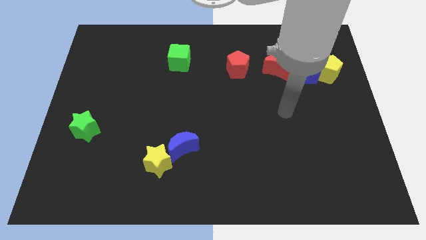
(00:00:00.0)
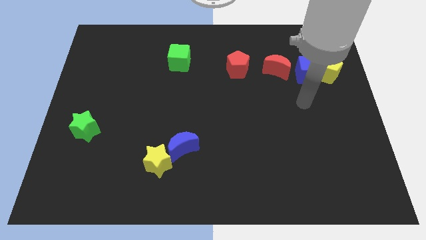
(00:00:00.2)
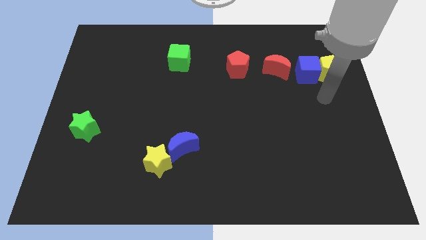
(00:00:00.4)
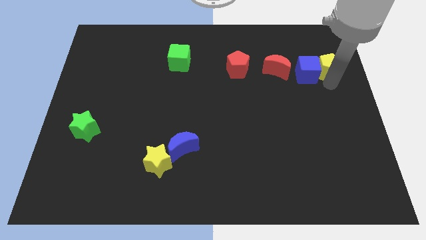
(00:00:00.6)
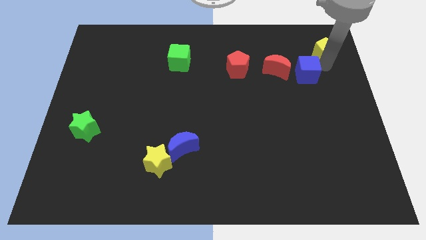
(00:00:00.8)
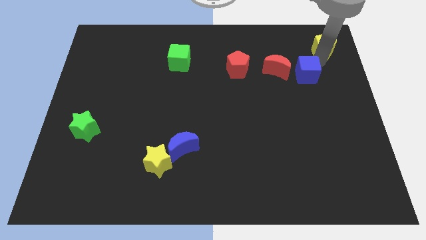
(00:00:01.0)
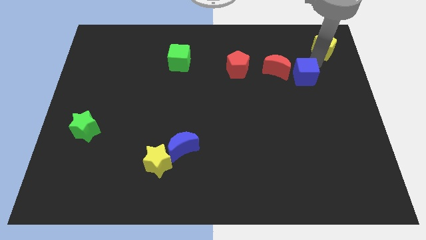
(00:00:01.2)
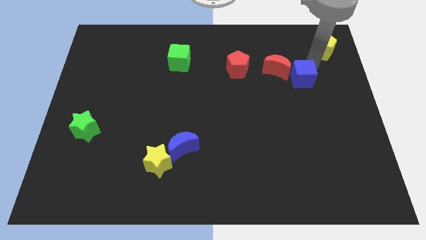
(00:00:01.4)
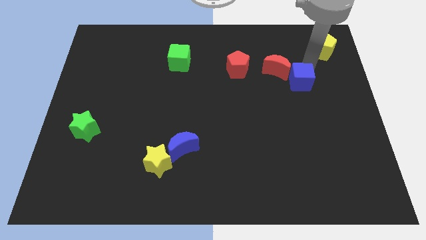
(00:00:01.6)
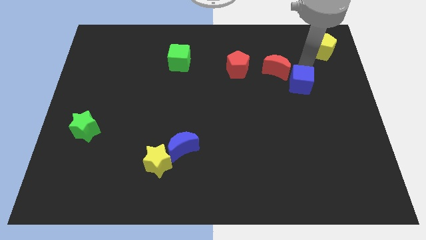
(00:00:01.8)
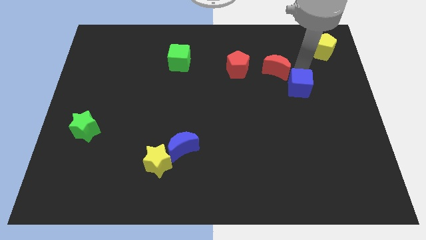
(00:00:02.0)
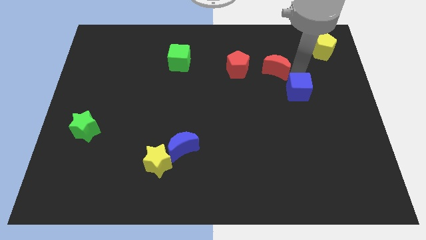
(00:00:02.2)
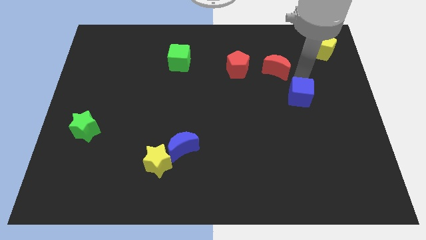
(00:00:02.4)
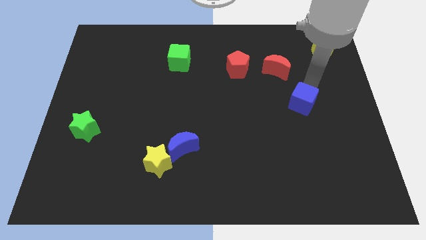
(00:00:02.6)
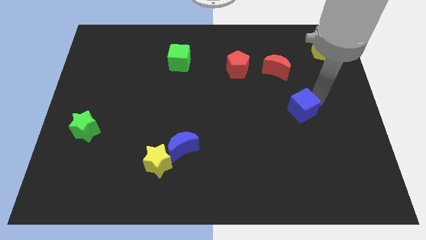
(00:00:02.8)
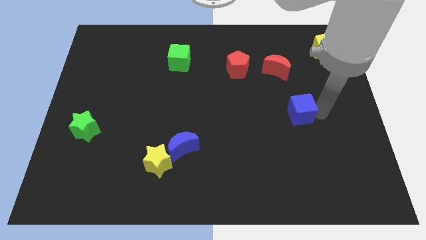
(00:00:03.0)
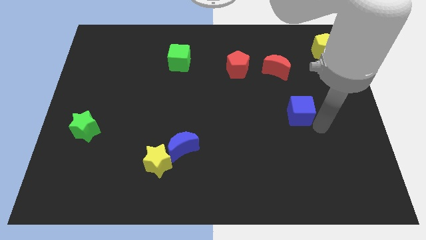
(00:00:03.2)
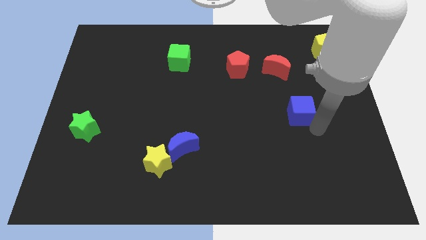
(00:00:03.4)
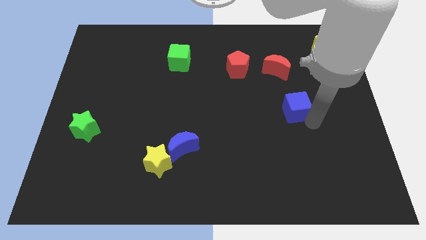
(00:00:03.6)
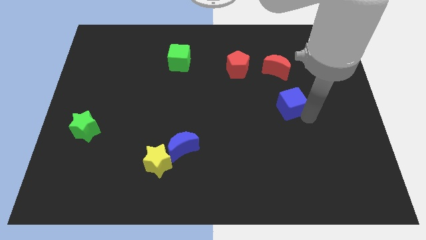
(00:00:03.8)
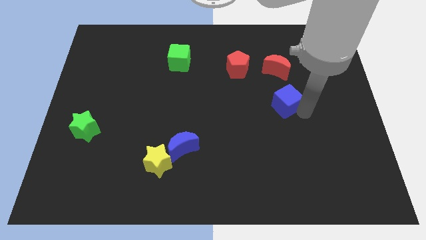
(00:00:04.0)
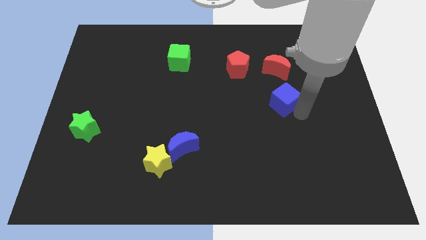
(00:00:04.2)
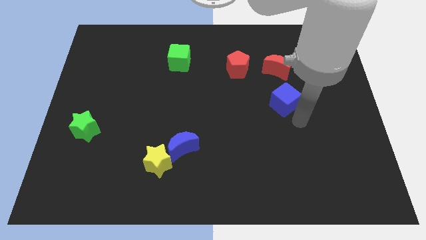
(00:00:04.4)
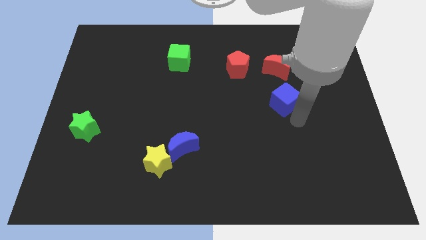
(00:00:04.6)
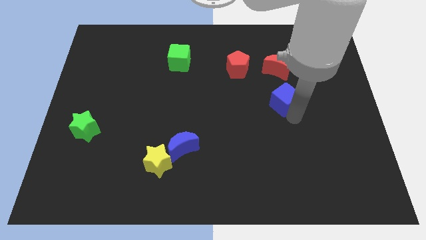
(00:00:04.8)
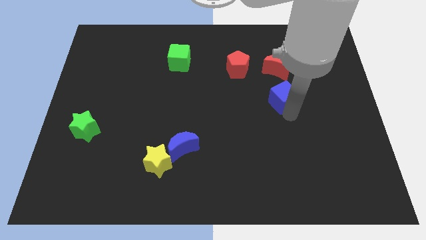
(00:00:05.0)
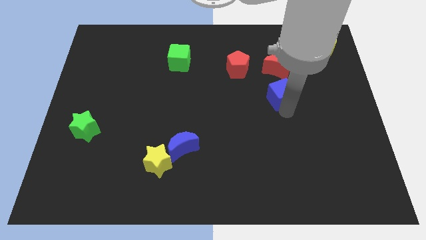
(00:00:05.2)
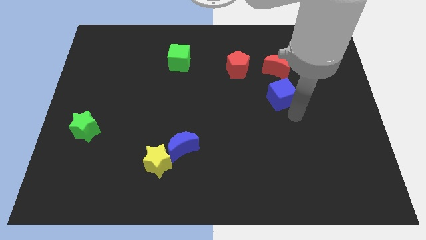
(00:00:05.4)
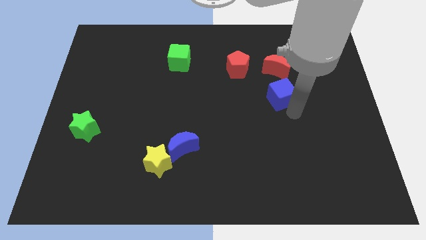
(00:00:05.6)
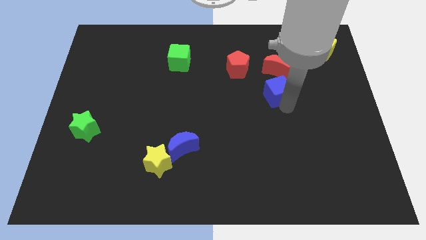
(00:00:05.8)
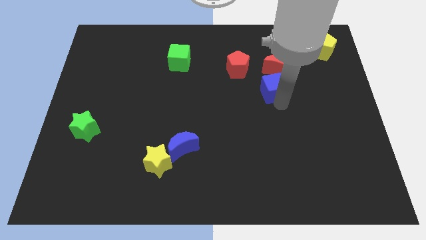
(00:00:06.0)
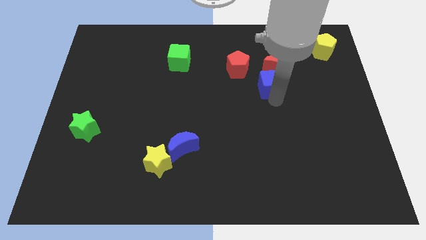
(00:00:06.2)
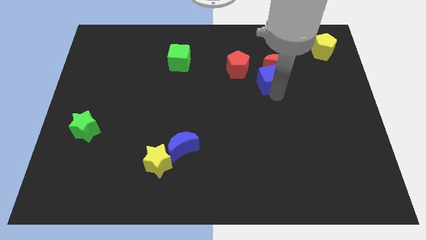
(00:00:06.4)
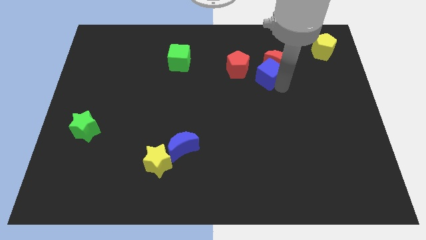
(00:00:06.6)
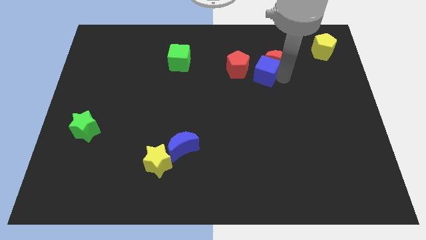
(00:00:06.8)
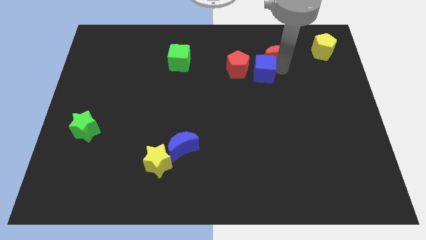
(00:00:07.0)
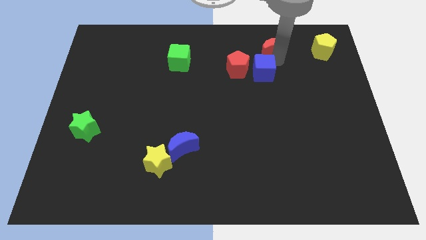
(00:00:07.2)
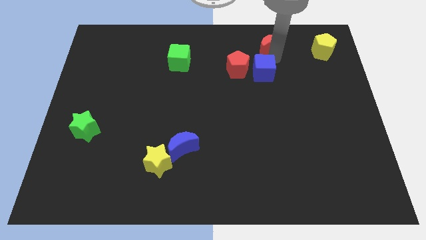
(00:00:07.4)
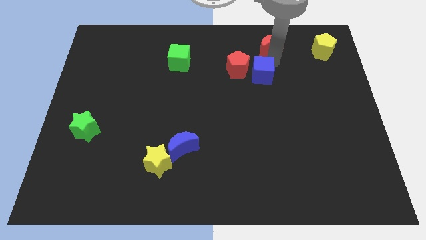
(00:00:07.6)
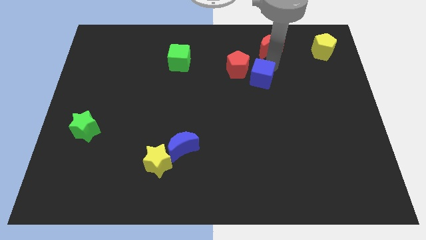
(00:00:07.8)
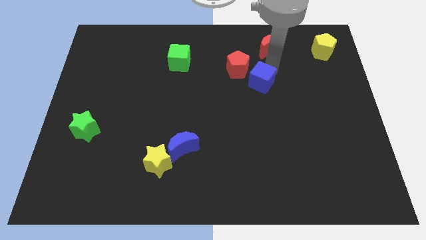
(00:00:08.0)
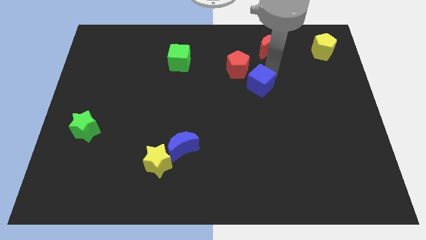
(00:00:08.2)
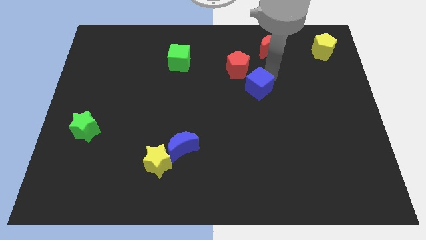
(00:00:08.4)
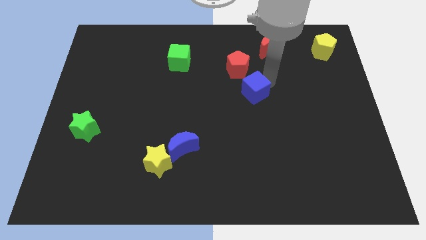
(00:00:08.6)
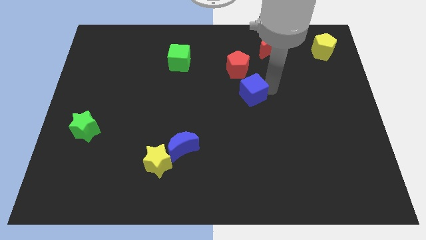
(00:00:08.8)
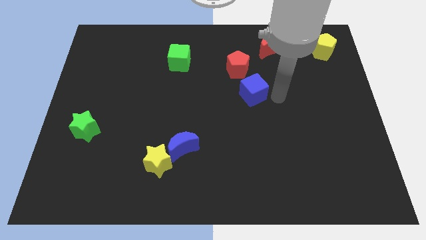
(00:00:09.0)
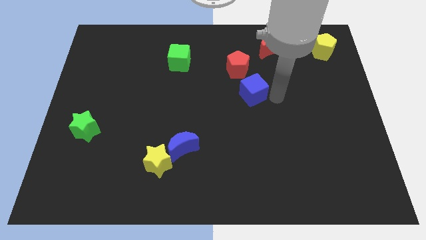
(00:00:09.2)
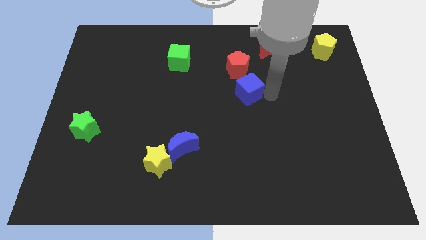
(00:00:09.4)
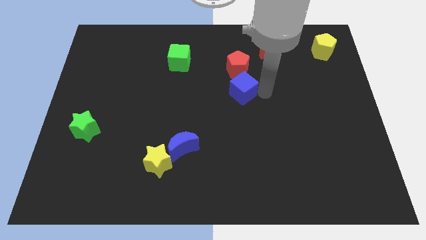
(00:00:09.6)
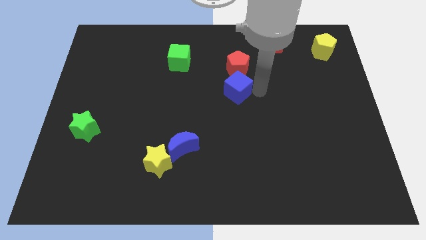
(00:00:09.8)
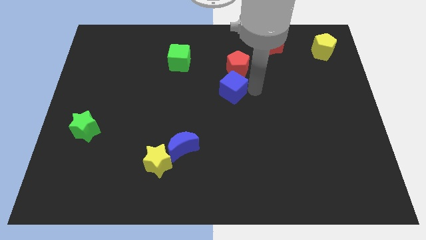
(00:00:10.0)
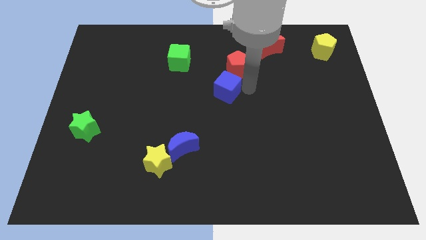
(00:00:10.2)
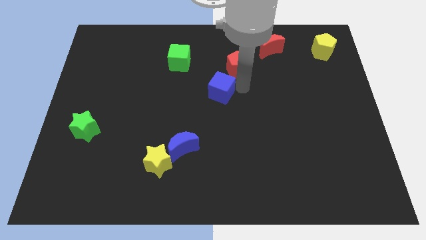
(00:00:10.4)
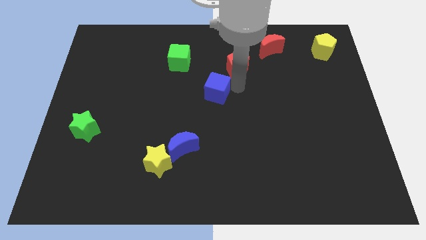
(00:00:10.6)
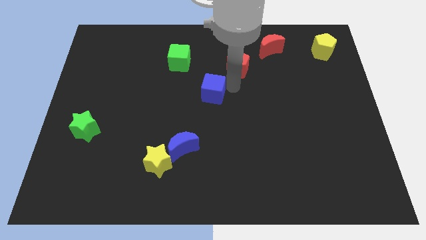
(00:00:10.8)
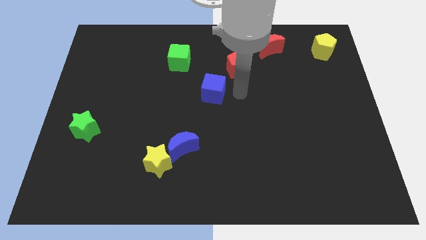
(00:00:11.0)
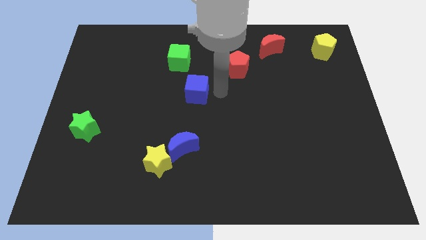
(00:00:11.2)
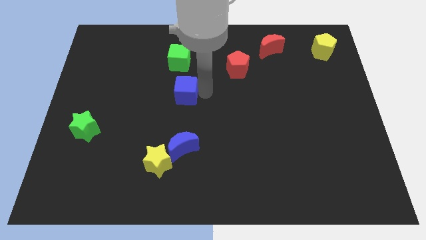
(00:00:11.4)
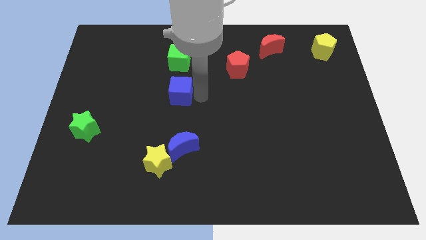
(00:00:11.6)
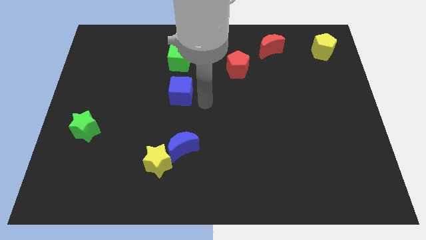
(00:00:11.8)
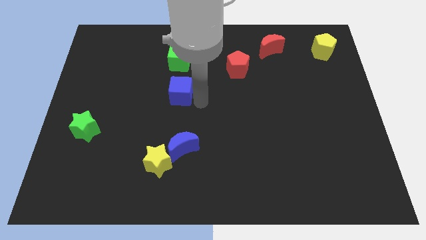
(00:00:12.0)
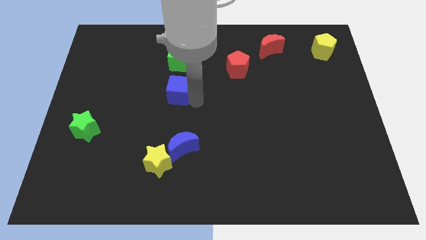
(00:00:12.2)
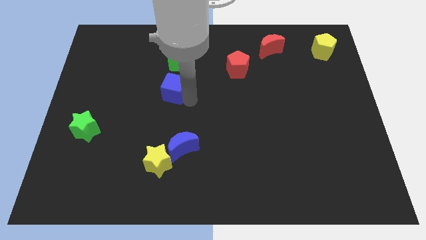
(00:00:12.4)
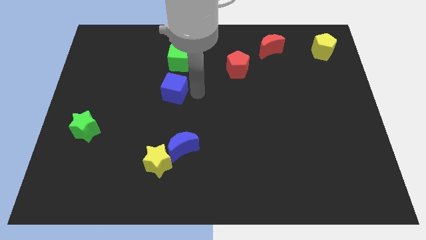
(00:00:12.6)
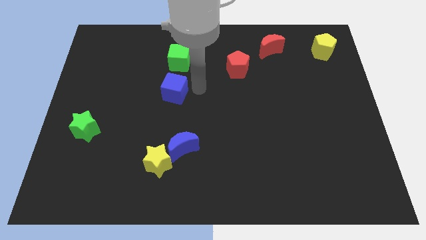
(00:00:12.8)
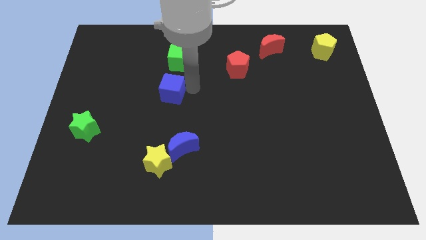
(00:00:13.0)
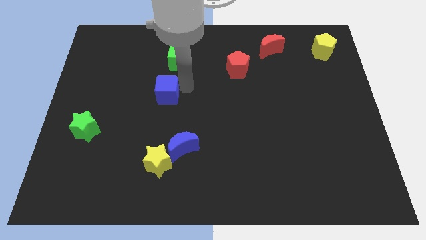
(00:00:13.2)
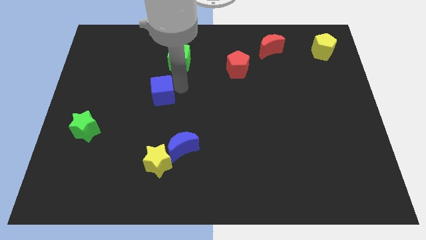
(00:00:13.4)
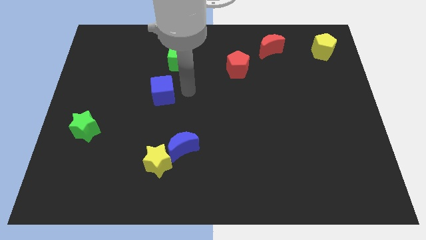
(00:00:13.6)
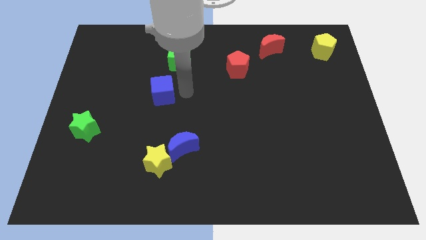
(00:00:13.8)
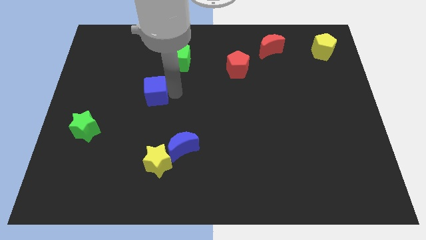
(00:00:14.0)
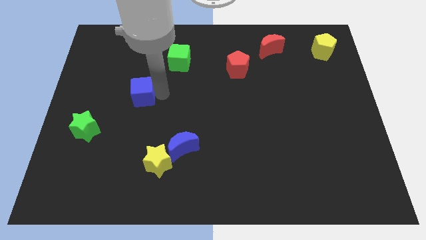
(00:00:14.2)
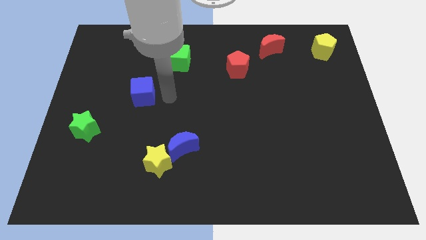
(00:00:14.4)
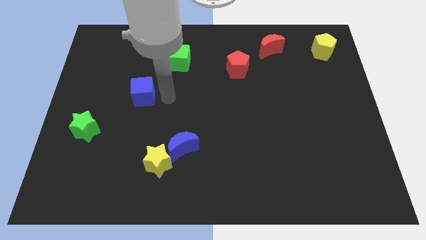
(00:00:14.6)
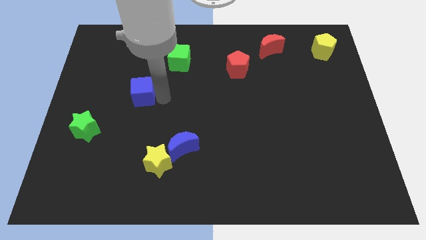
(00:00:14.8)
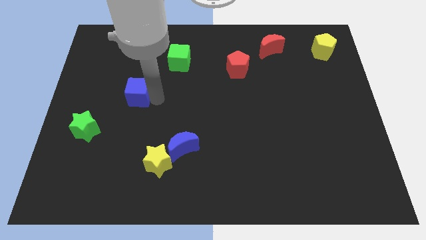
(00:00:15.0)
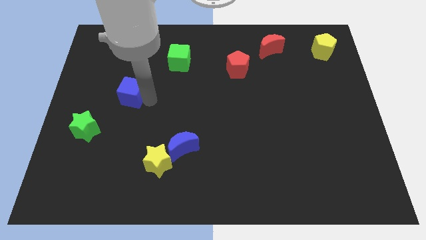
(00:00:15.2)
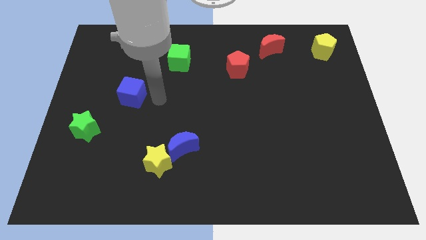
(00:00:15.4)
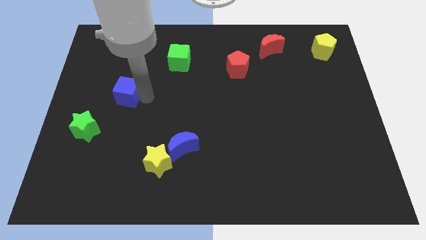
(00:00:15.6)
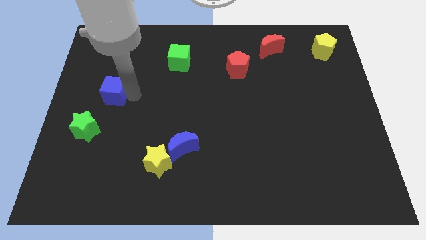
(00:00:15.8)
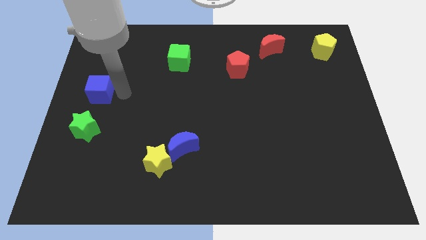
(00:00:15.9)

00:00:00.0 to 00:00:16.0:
push the blue cube to the center left

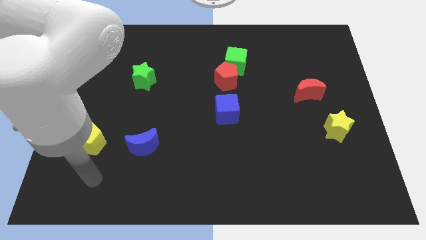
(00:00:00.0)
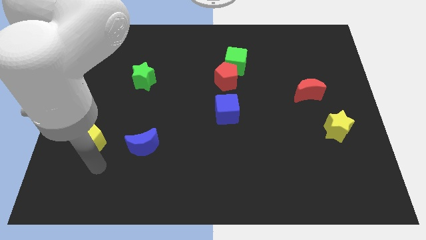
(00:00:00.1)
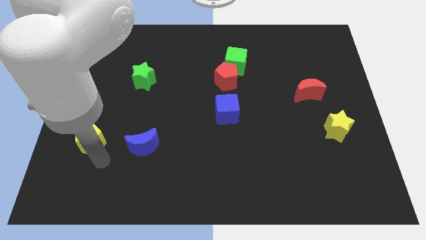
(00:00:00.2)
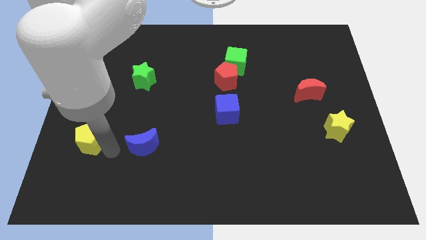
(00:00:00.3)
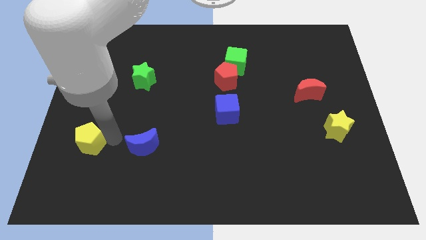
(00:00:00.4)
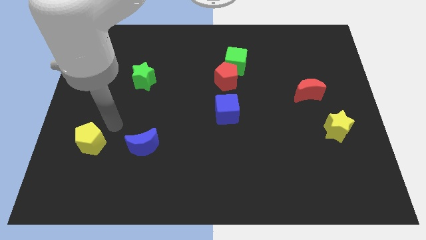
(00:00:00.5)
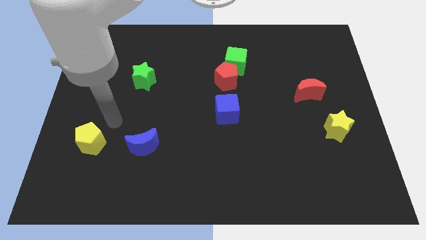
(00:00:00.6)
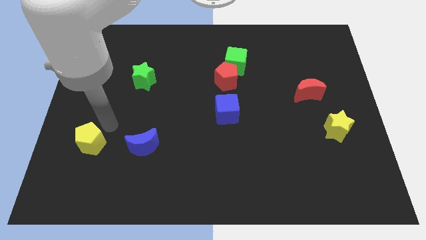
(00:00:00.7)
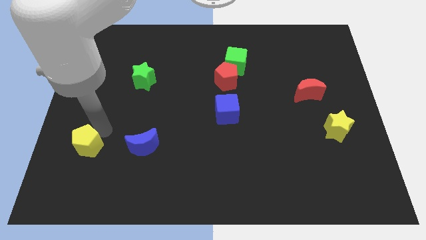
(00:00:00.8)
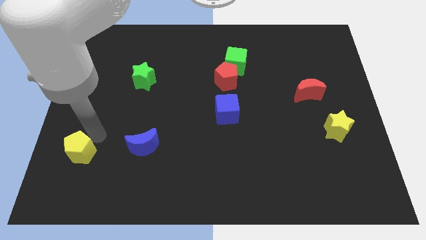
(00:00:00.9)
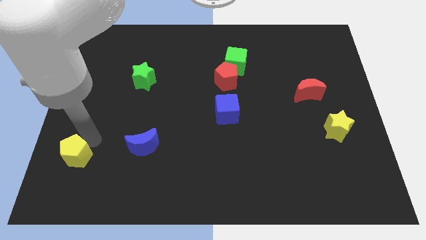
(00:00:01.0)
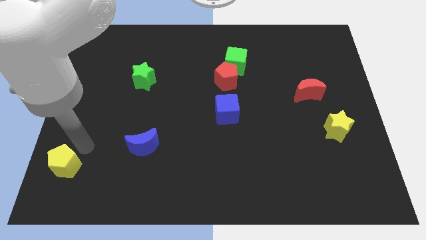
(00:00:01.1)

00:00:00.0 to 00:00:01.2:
move the yellow pentagon to the lower left corner
